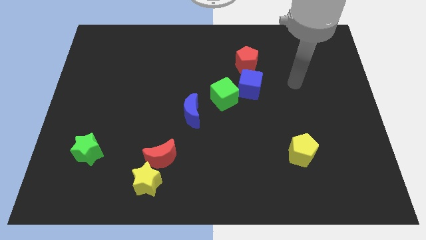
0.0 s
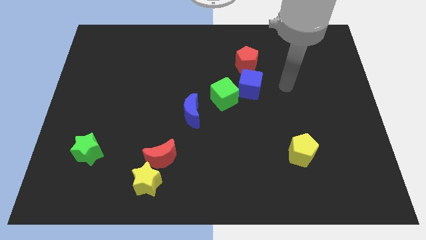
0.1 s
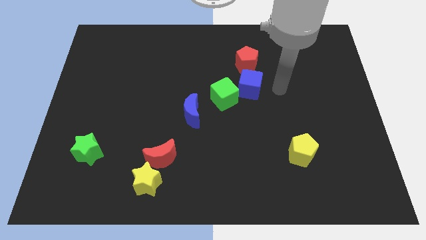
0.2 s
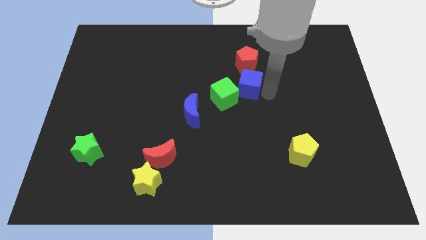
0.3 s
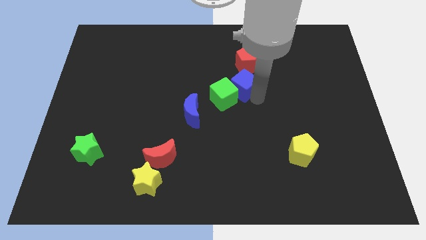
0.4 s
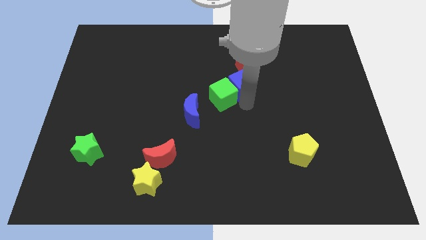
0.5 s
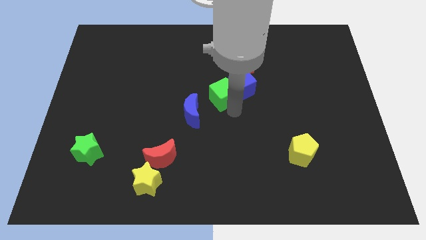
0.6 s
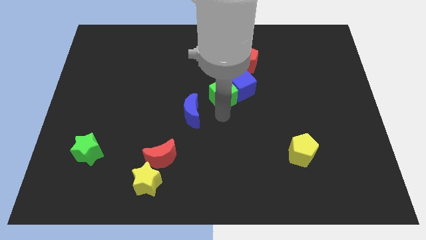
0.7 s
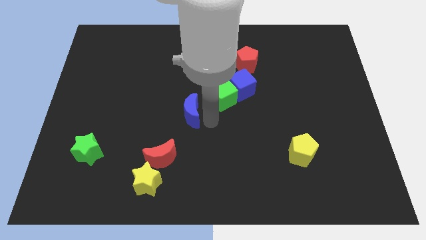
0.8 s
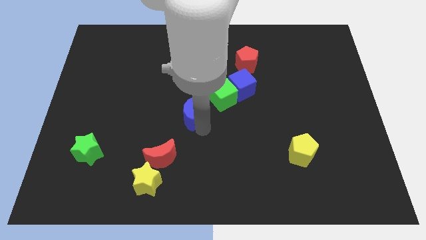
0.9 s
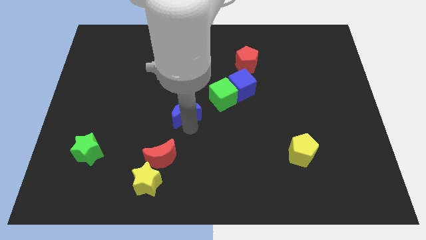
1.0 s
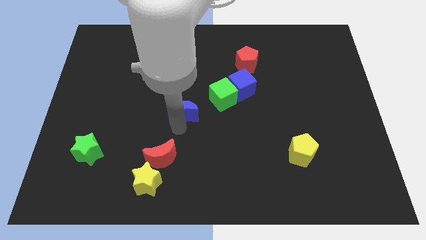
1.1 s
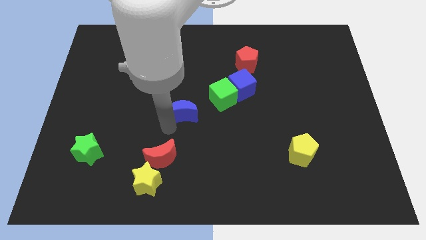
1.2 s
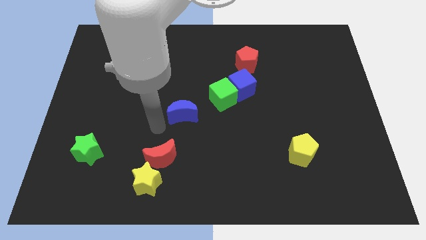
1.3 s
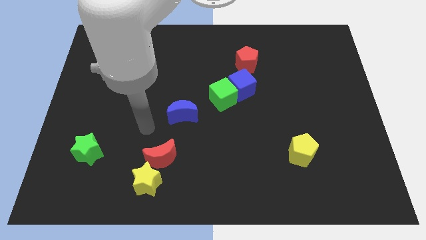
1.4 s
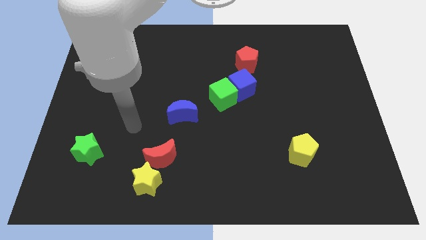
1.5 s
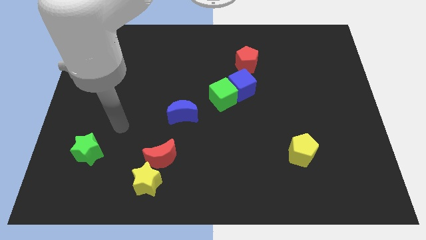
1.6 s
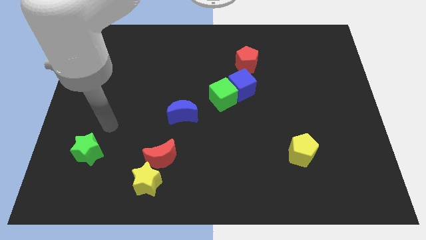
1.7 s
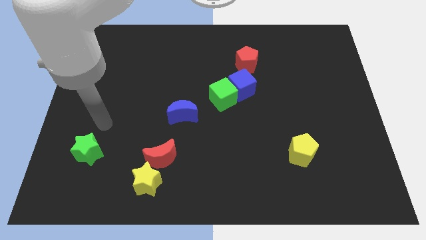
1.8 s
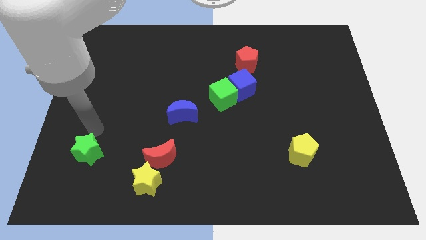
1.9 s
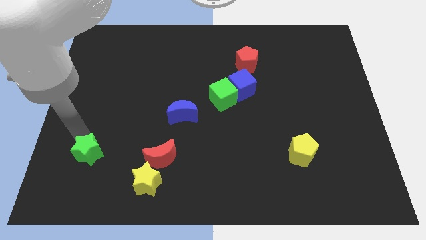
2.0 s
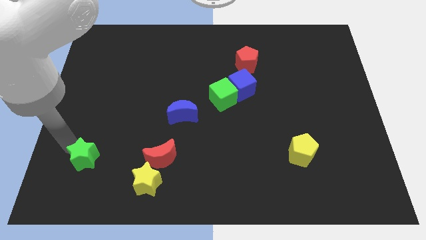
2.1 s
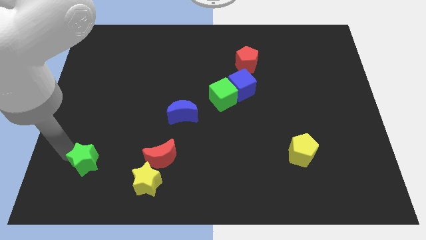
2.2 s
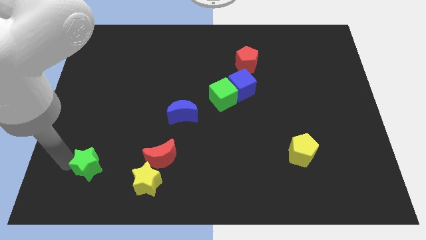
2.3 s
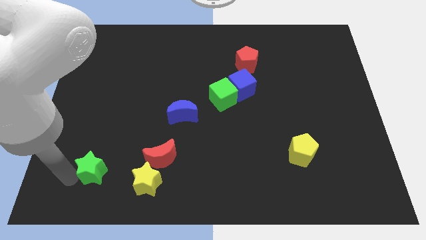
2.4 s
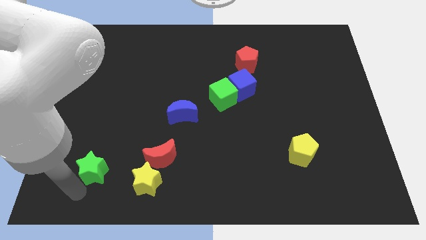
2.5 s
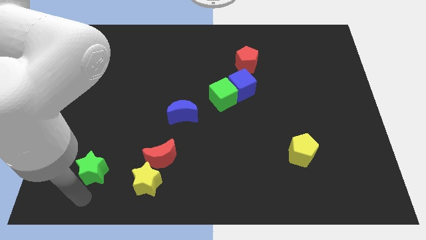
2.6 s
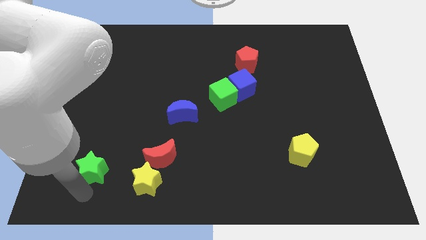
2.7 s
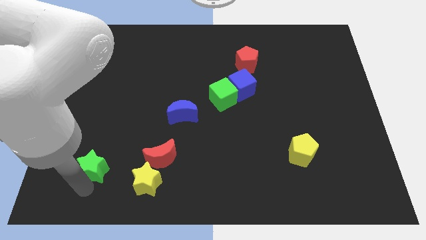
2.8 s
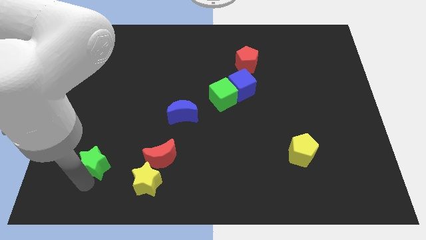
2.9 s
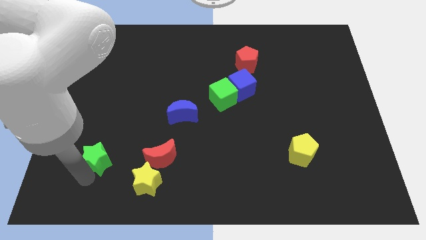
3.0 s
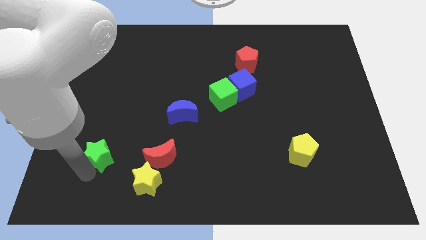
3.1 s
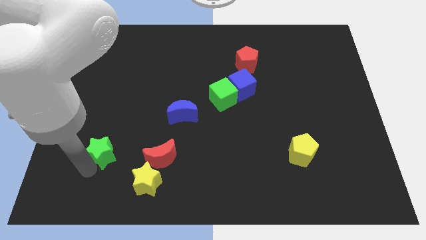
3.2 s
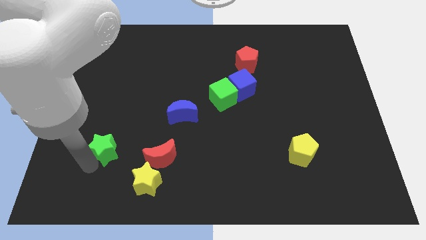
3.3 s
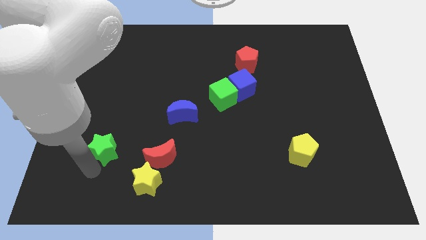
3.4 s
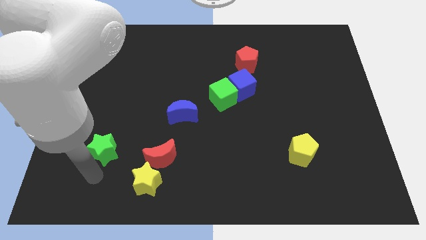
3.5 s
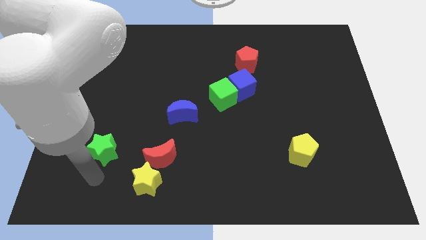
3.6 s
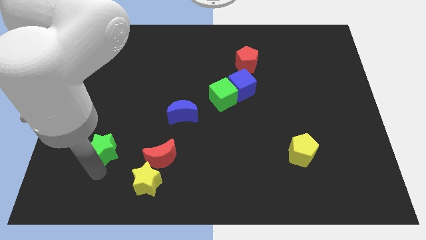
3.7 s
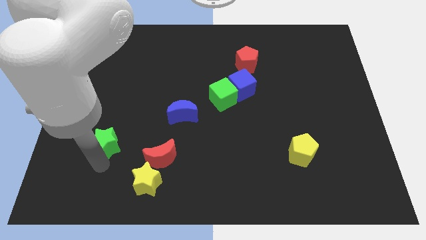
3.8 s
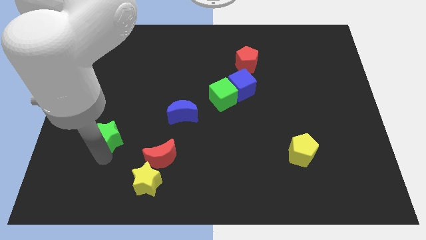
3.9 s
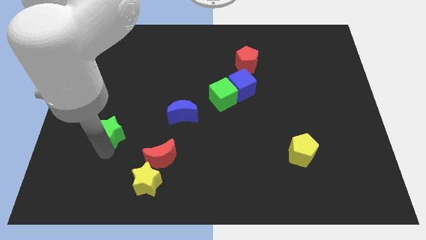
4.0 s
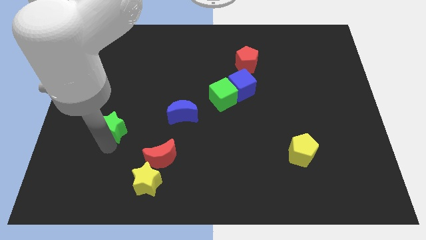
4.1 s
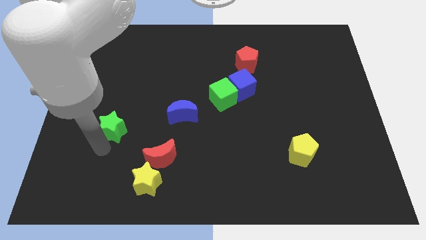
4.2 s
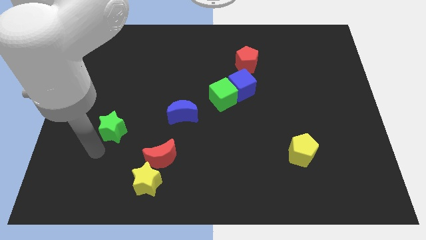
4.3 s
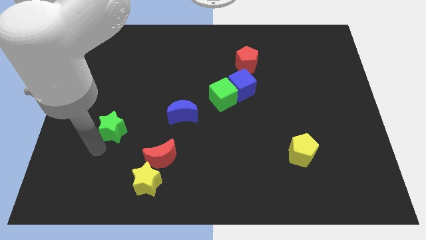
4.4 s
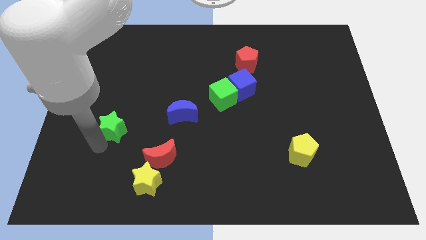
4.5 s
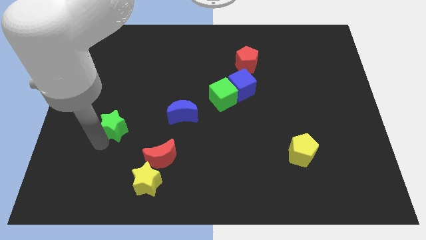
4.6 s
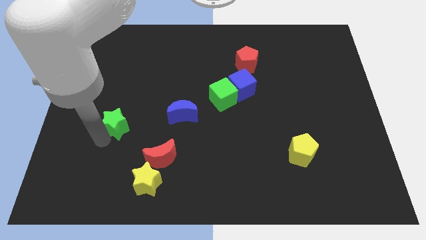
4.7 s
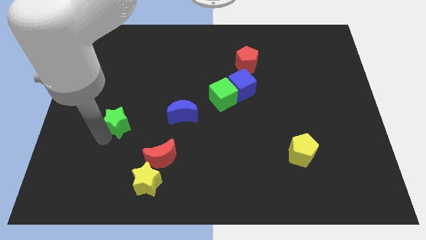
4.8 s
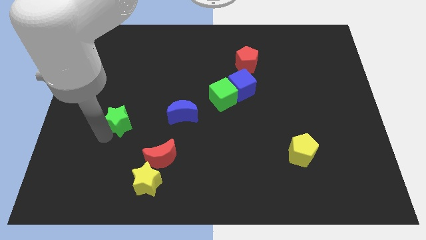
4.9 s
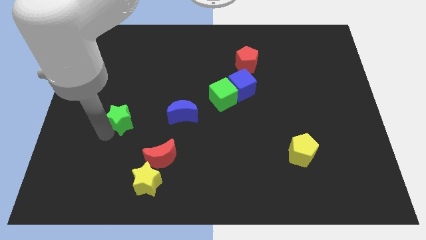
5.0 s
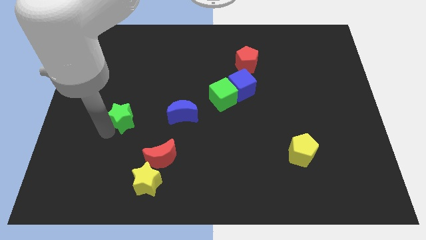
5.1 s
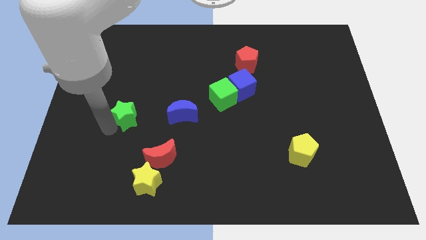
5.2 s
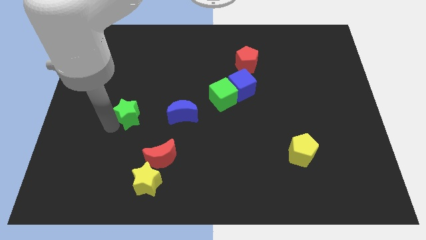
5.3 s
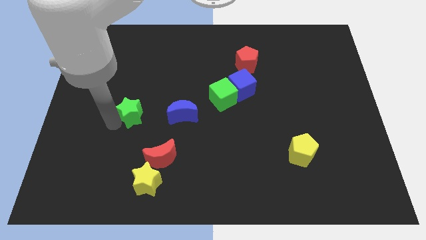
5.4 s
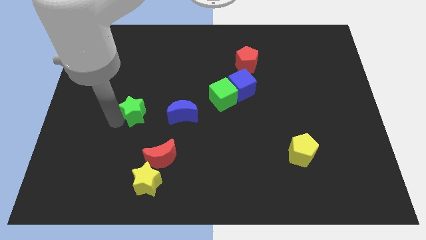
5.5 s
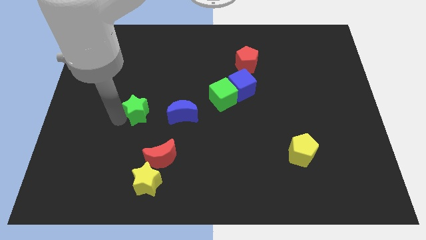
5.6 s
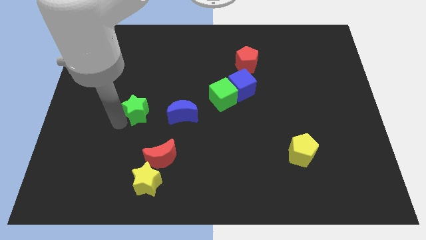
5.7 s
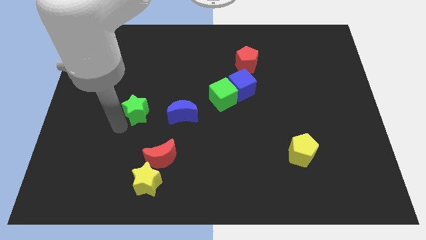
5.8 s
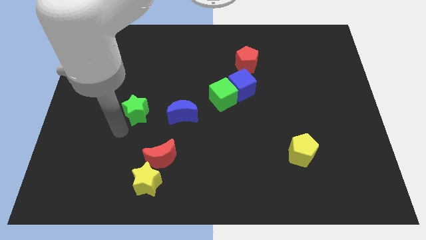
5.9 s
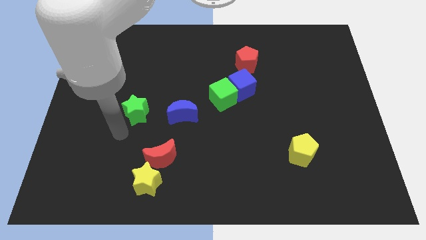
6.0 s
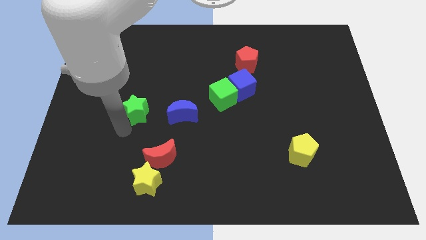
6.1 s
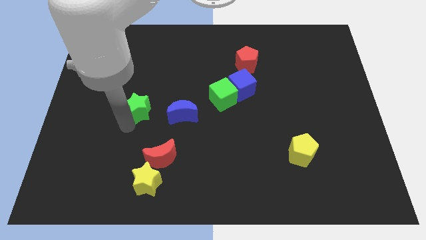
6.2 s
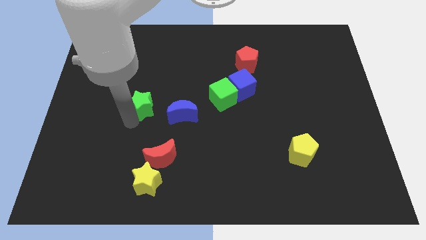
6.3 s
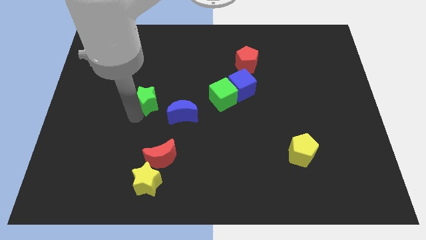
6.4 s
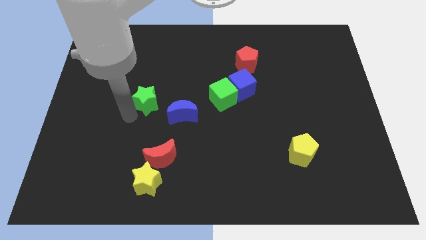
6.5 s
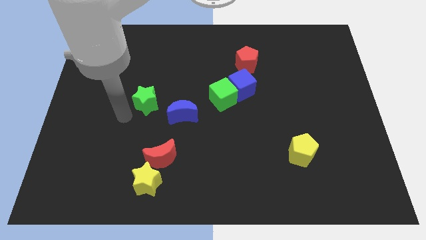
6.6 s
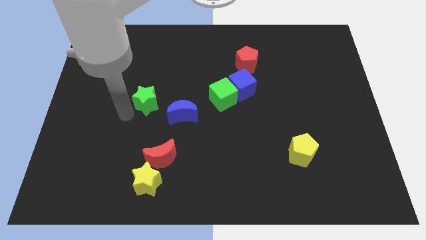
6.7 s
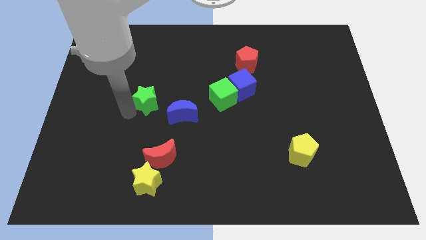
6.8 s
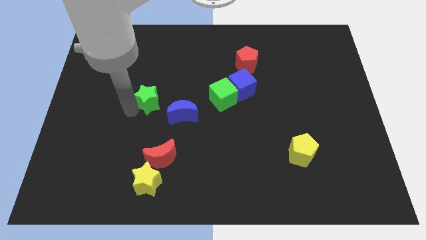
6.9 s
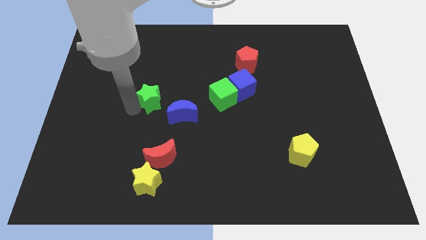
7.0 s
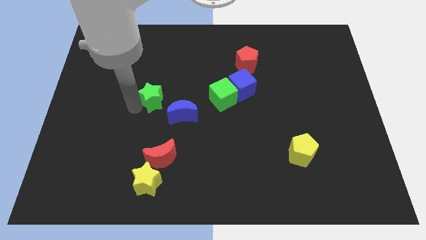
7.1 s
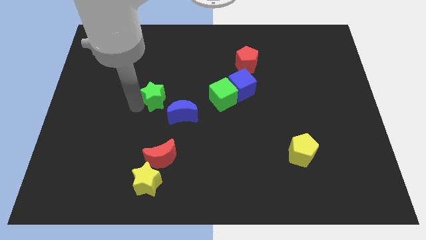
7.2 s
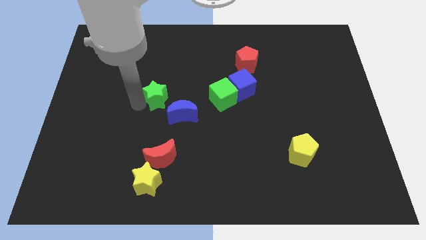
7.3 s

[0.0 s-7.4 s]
slide the green star upwards and right

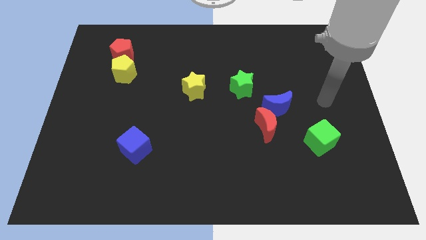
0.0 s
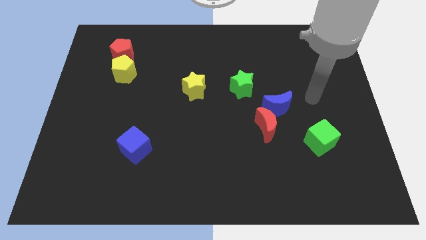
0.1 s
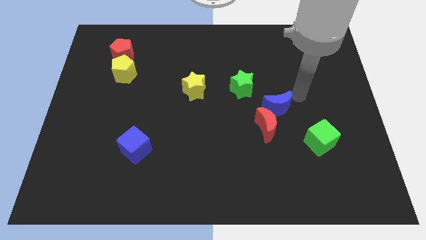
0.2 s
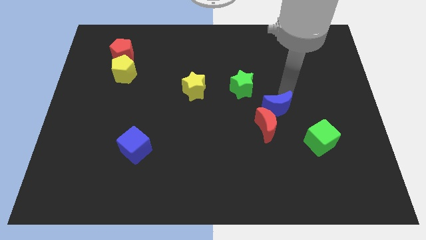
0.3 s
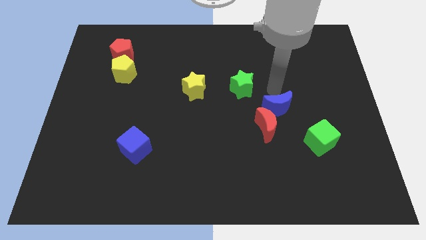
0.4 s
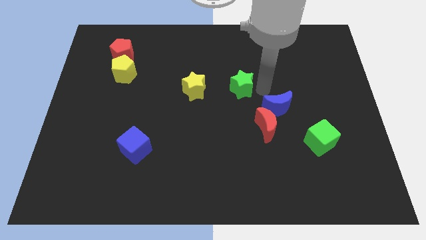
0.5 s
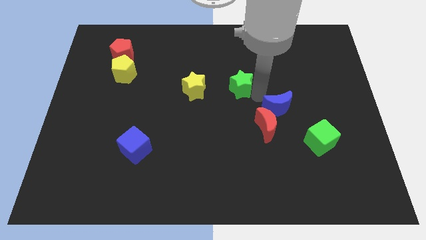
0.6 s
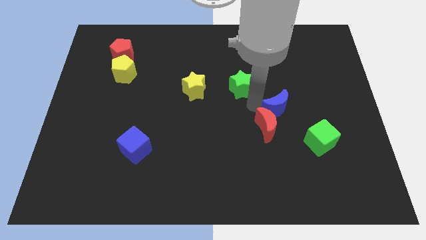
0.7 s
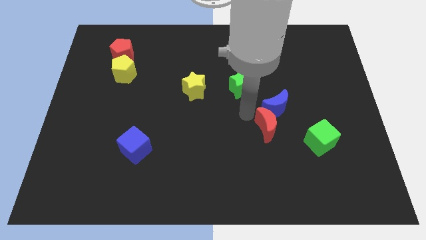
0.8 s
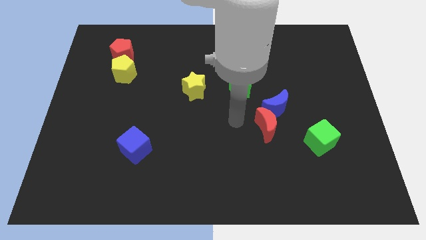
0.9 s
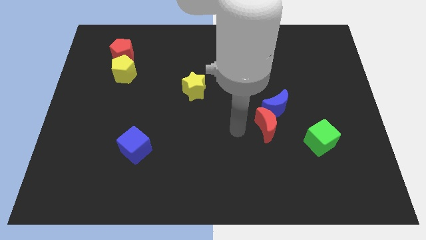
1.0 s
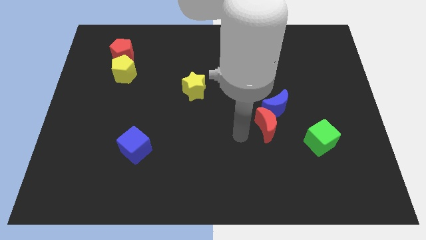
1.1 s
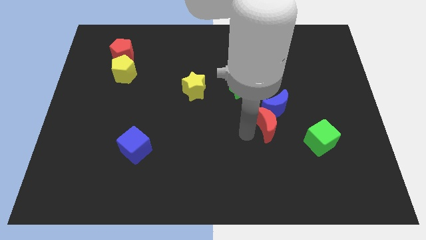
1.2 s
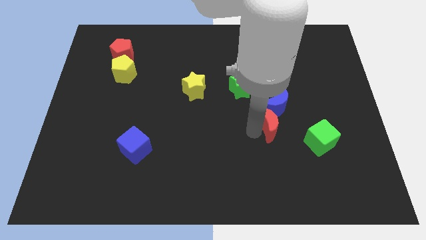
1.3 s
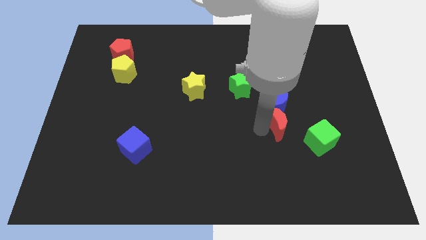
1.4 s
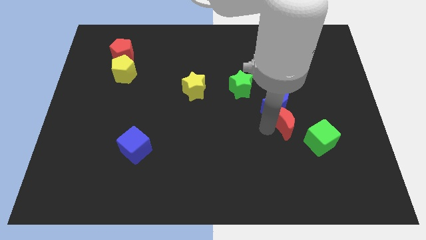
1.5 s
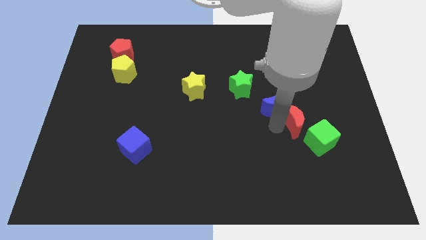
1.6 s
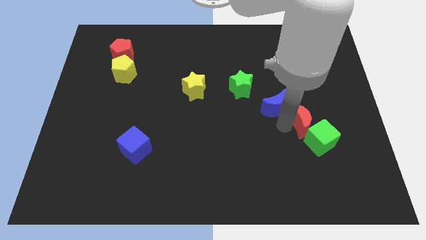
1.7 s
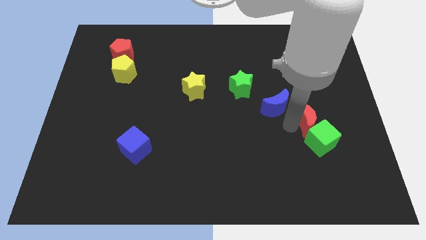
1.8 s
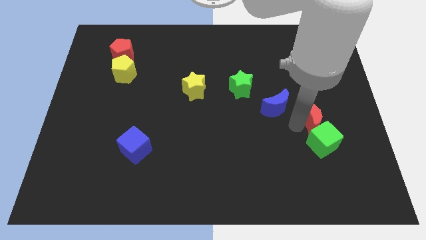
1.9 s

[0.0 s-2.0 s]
slightly slide the red moon upwards and to the right
